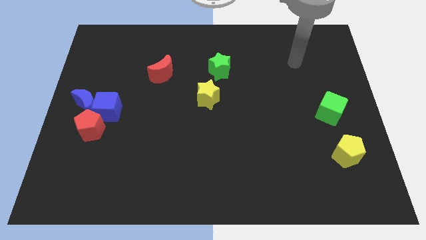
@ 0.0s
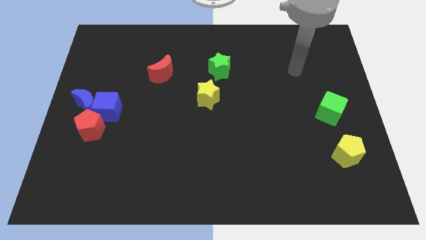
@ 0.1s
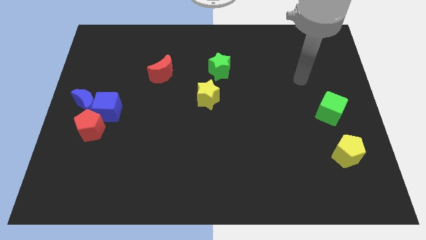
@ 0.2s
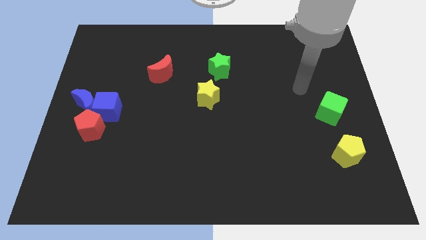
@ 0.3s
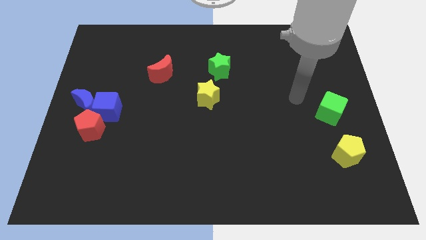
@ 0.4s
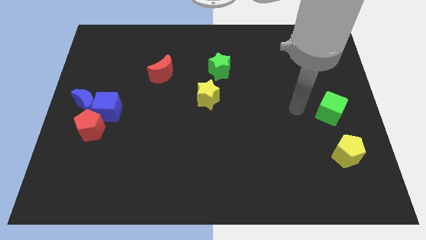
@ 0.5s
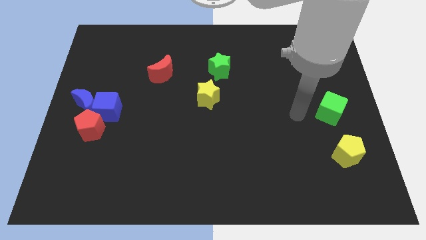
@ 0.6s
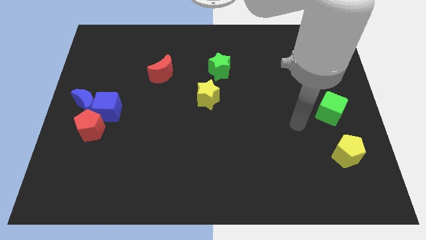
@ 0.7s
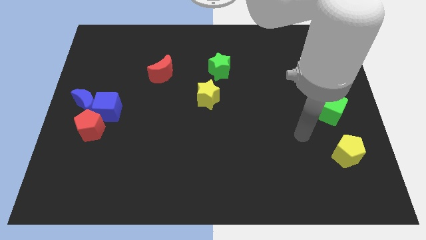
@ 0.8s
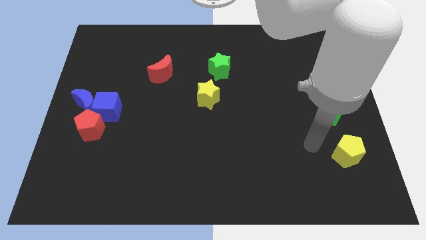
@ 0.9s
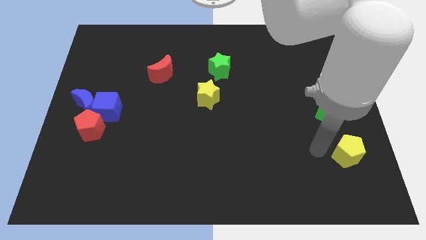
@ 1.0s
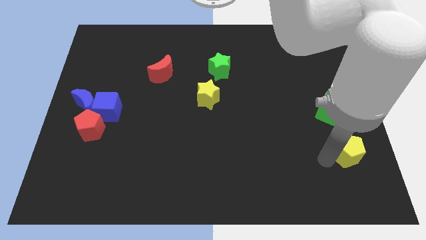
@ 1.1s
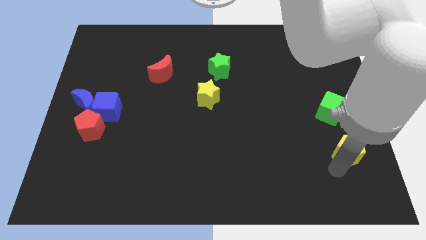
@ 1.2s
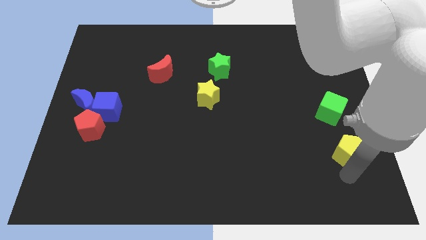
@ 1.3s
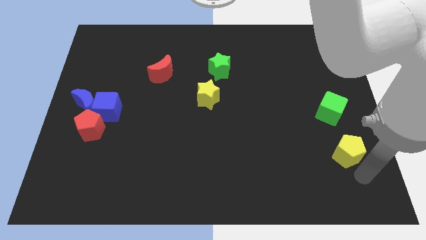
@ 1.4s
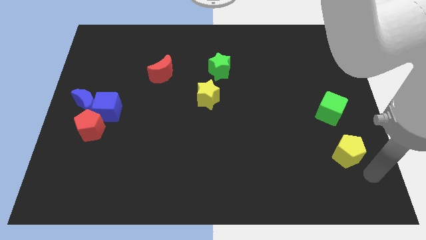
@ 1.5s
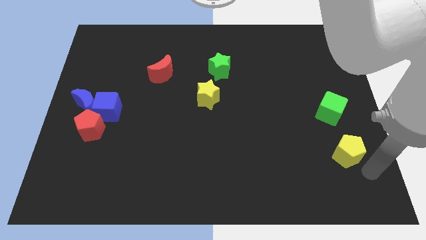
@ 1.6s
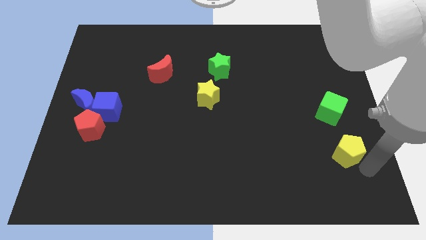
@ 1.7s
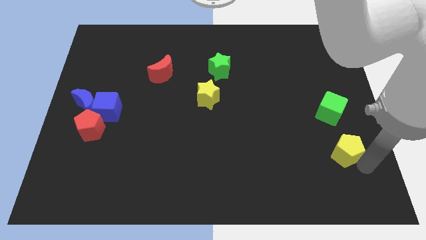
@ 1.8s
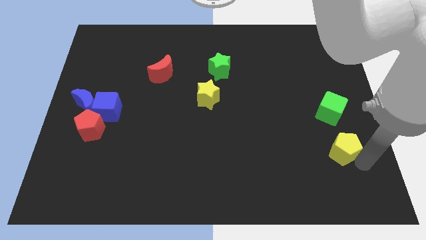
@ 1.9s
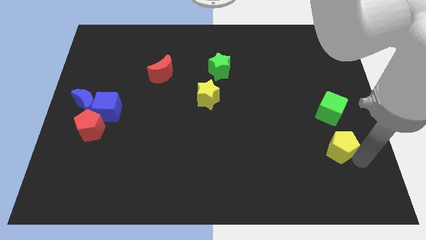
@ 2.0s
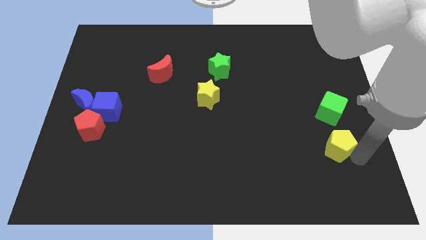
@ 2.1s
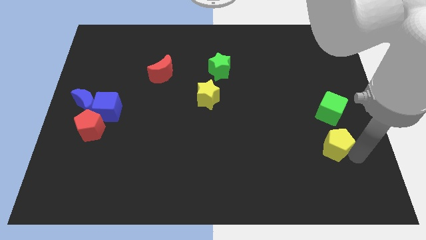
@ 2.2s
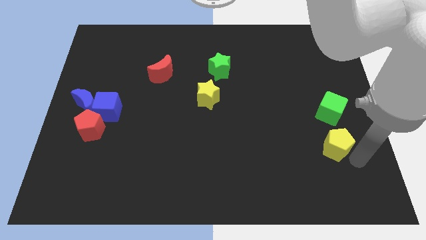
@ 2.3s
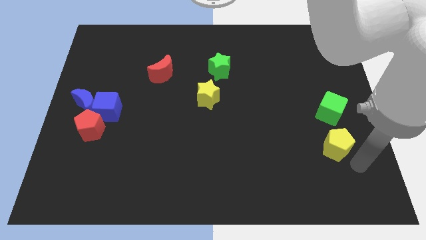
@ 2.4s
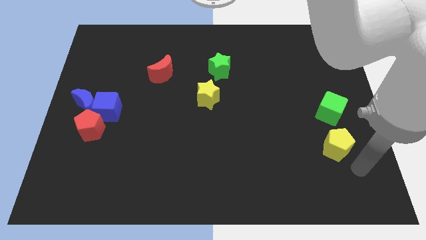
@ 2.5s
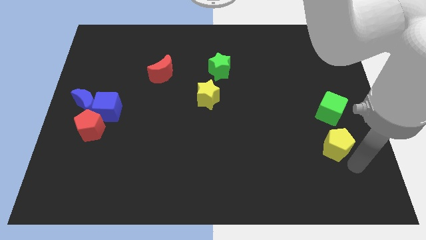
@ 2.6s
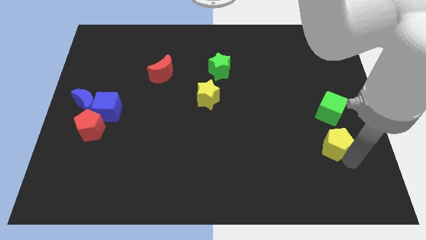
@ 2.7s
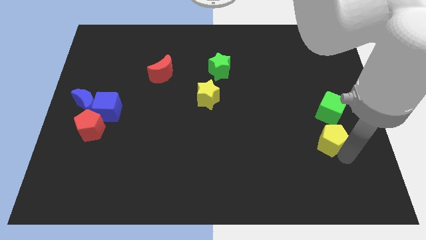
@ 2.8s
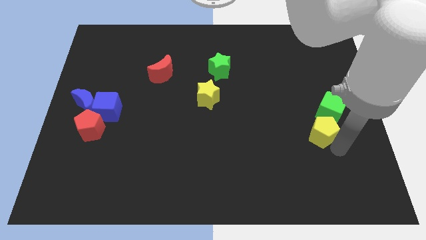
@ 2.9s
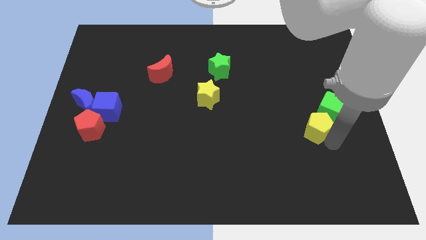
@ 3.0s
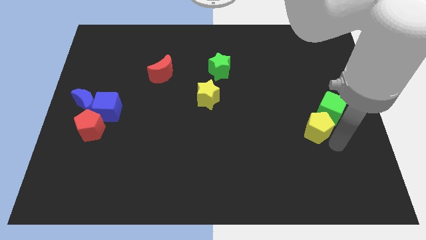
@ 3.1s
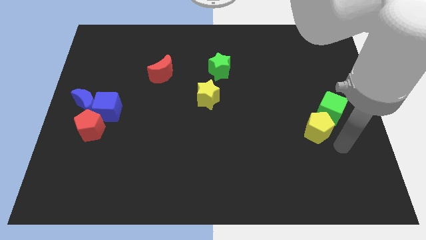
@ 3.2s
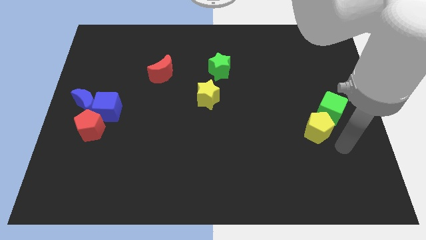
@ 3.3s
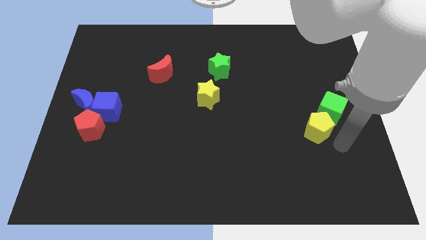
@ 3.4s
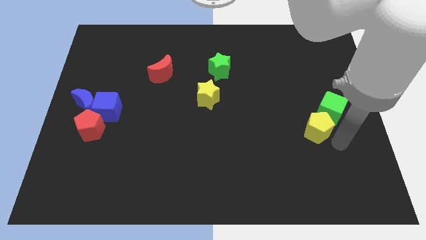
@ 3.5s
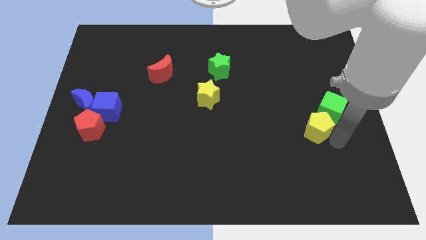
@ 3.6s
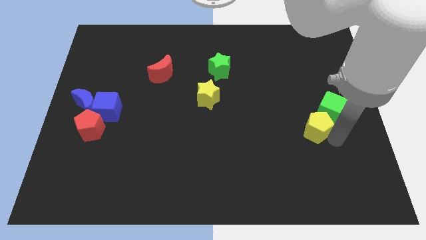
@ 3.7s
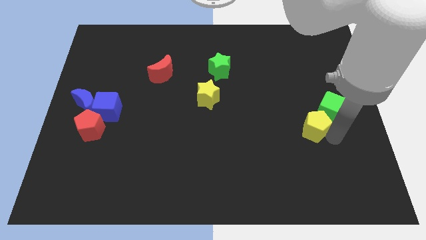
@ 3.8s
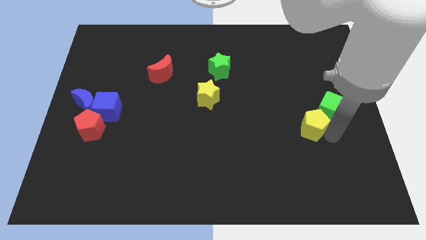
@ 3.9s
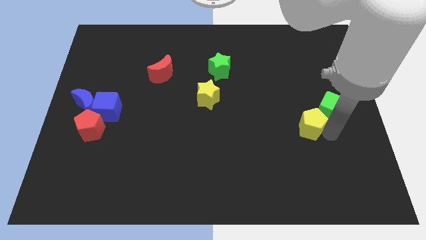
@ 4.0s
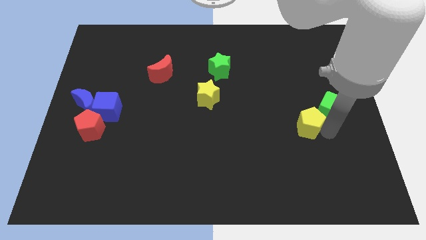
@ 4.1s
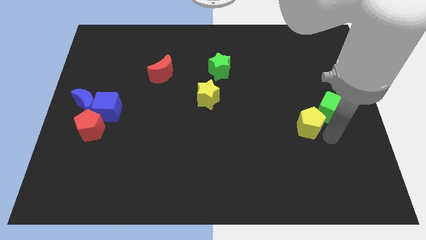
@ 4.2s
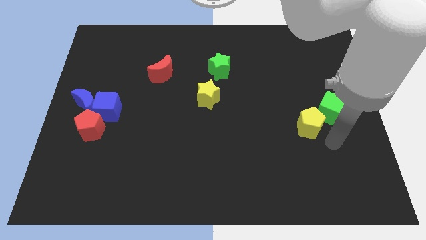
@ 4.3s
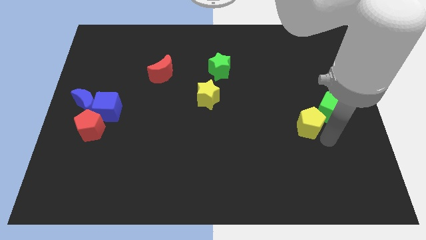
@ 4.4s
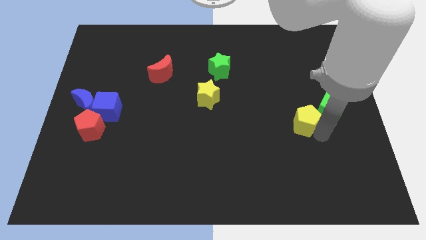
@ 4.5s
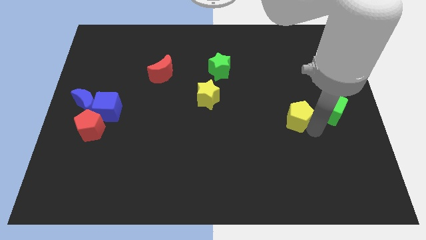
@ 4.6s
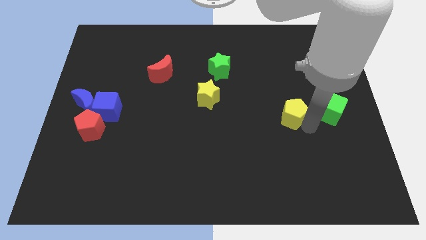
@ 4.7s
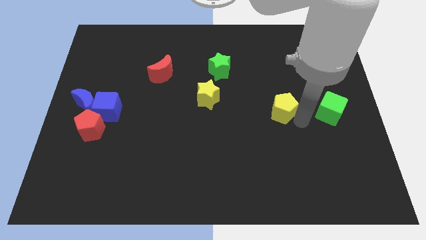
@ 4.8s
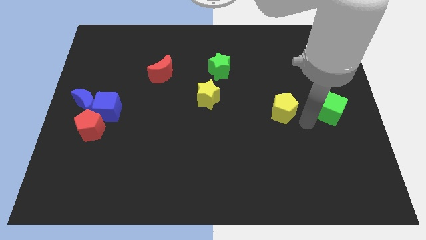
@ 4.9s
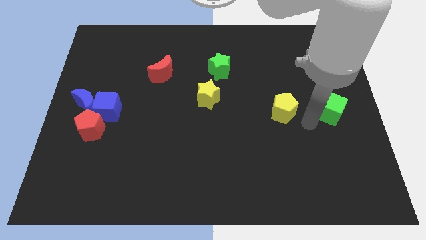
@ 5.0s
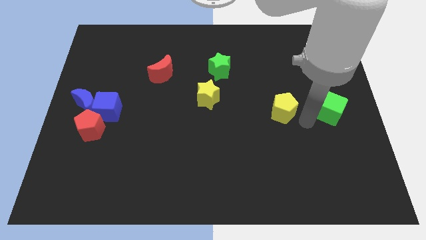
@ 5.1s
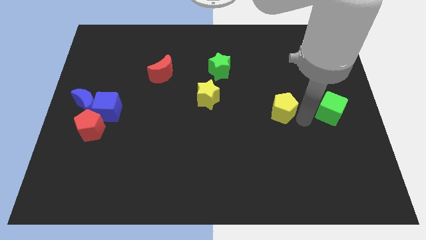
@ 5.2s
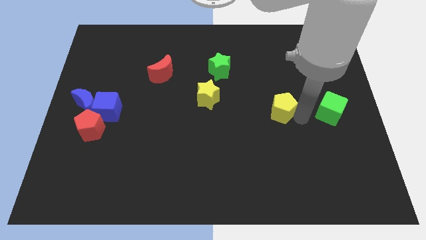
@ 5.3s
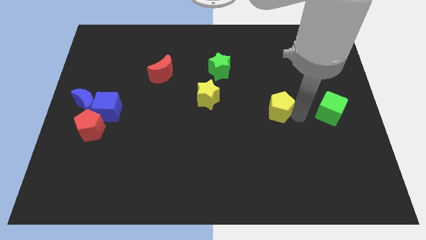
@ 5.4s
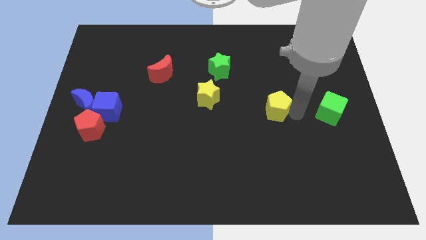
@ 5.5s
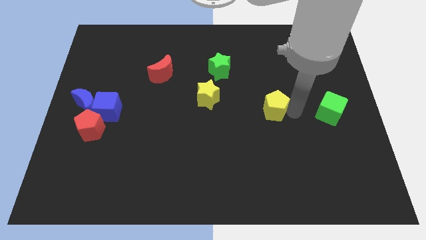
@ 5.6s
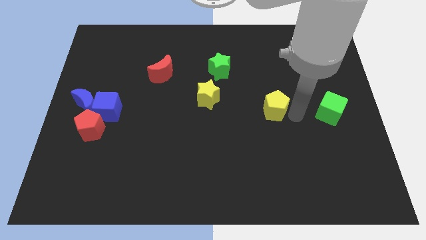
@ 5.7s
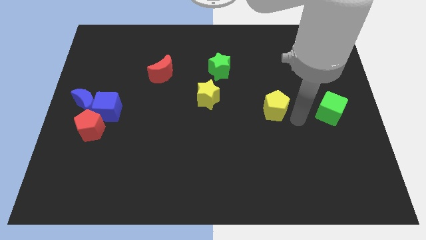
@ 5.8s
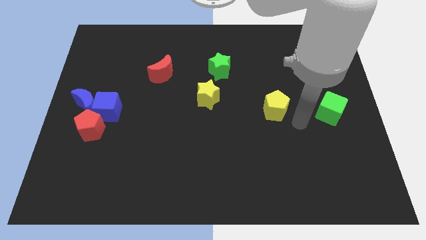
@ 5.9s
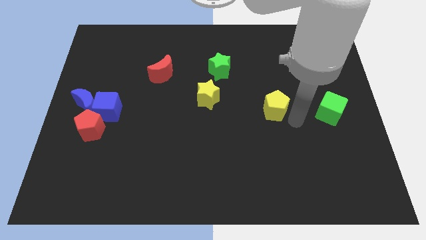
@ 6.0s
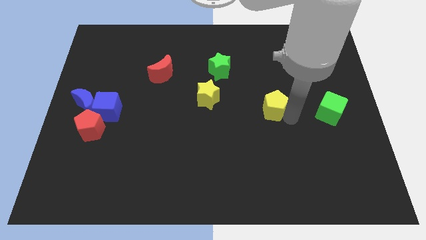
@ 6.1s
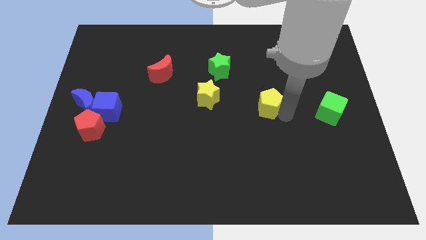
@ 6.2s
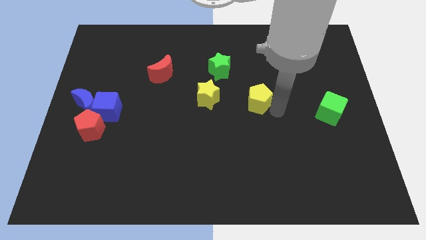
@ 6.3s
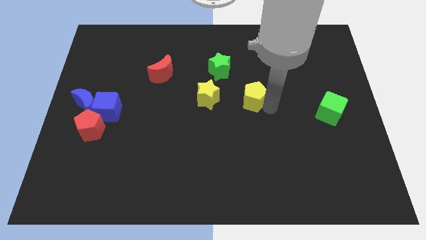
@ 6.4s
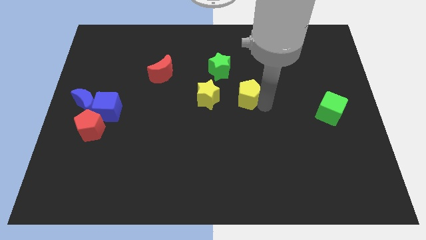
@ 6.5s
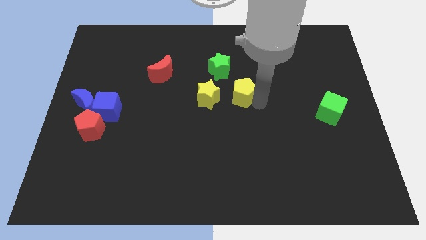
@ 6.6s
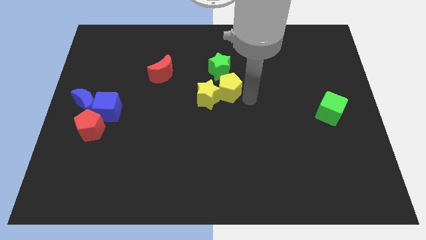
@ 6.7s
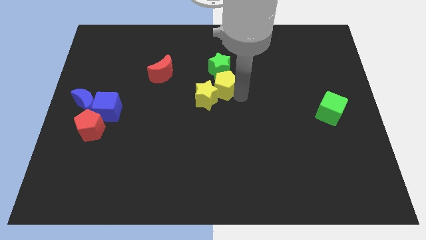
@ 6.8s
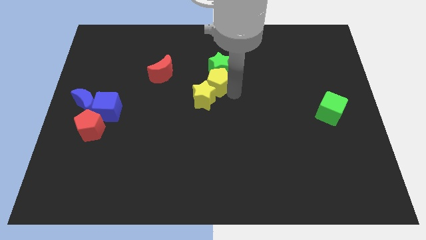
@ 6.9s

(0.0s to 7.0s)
move the yellow pentagon just right of the red moon

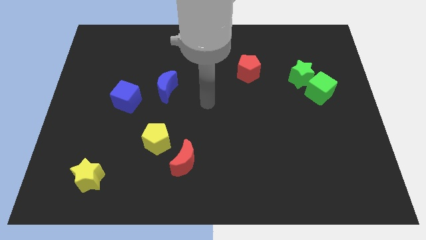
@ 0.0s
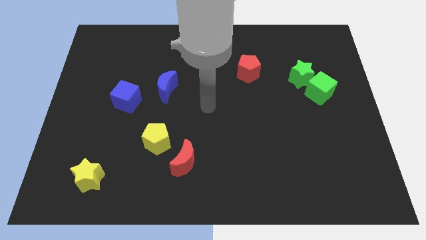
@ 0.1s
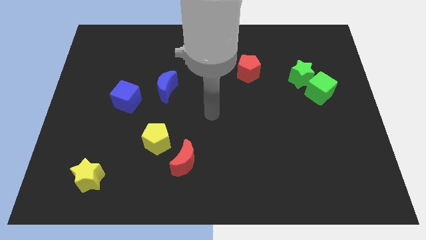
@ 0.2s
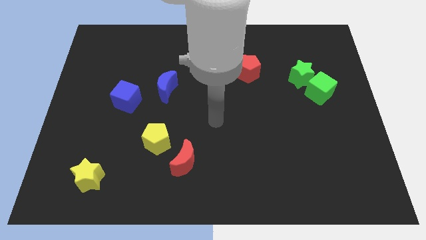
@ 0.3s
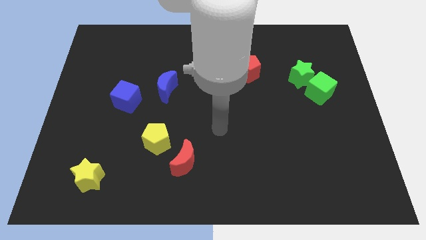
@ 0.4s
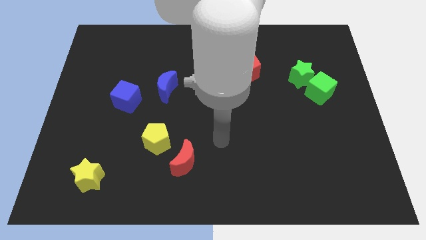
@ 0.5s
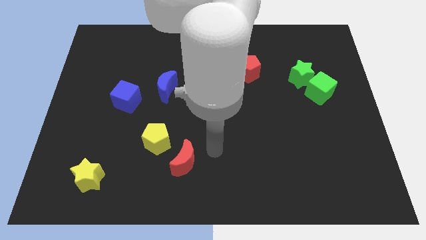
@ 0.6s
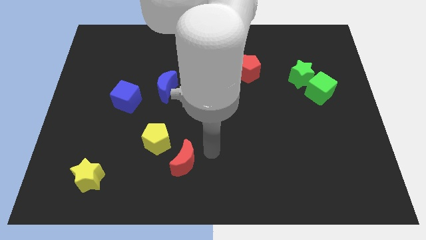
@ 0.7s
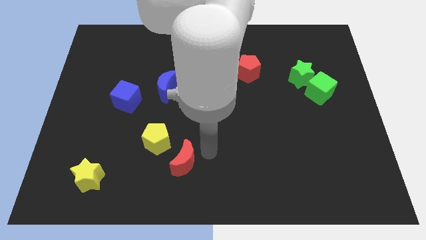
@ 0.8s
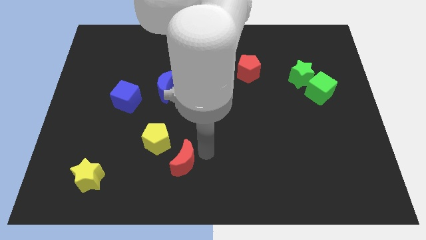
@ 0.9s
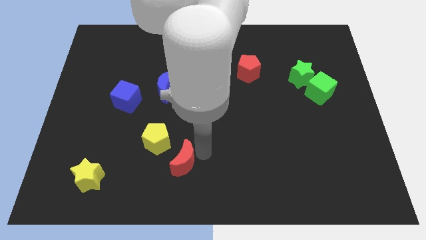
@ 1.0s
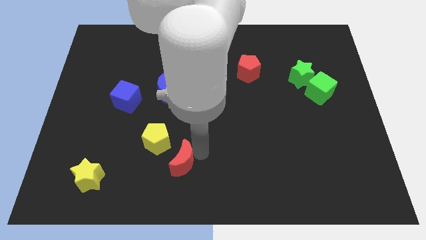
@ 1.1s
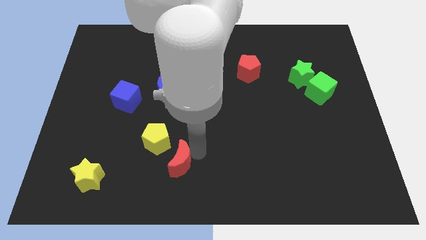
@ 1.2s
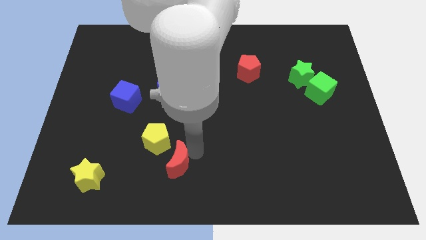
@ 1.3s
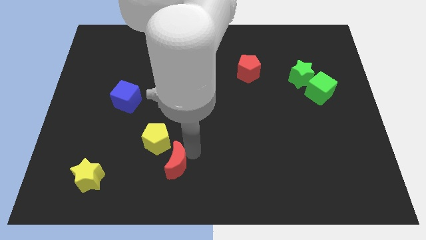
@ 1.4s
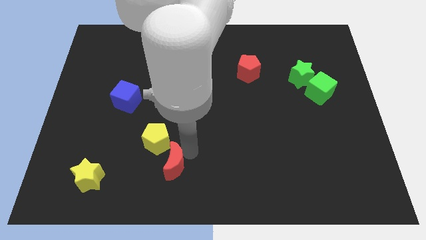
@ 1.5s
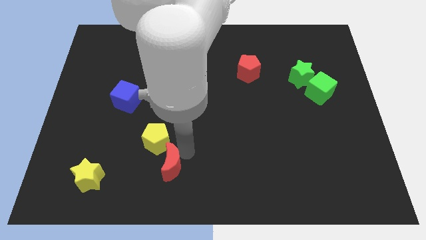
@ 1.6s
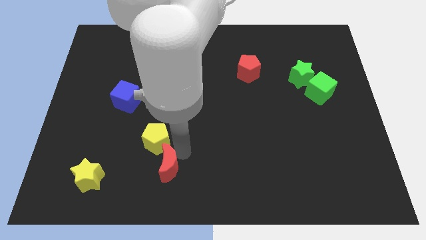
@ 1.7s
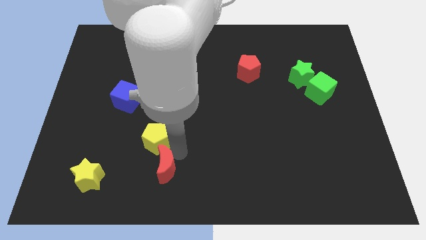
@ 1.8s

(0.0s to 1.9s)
push the red moon to the right of the yellow star
